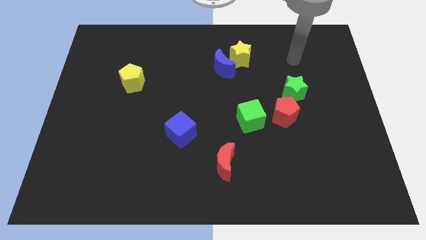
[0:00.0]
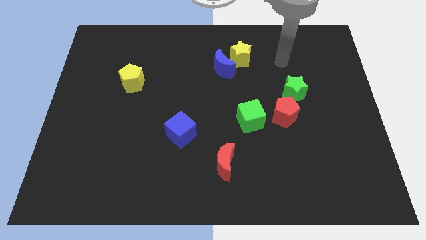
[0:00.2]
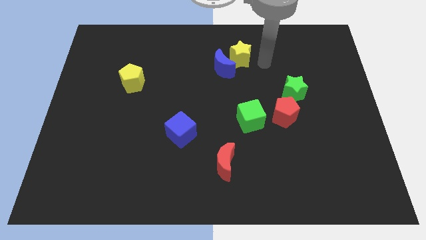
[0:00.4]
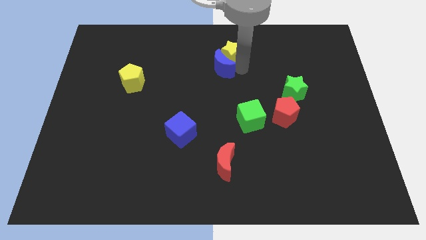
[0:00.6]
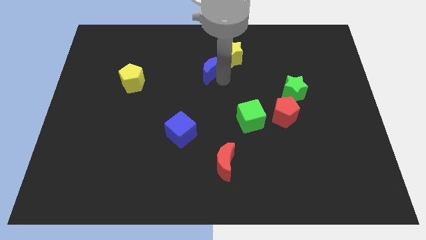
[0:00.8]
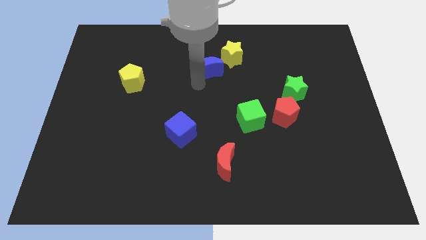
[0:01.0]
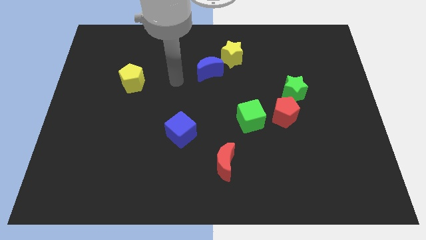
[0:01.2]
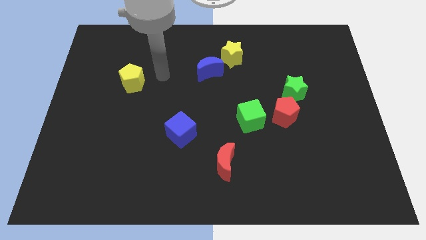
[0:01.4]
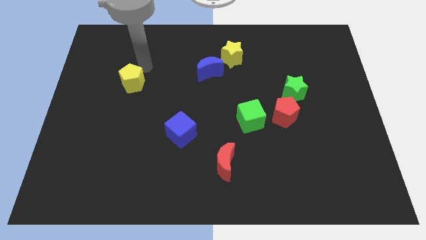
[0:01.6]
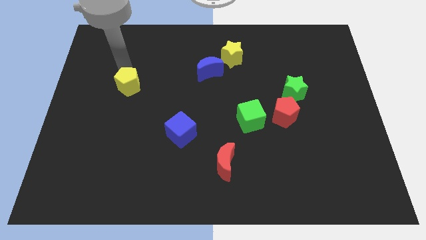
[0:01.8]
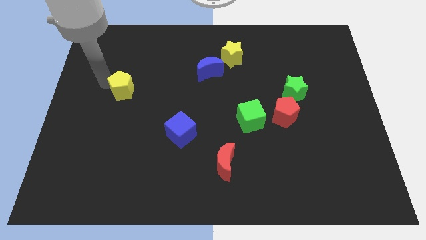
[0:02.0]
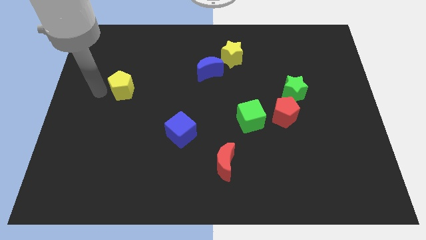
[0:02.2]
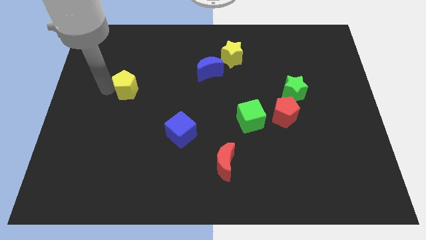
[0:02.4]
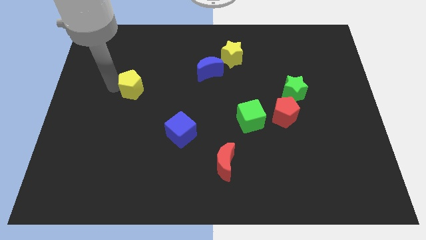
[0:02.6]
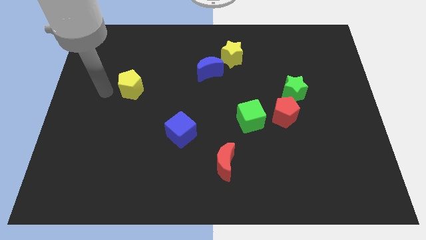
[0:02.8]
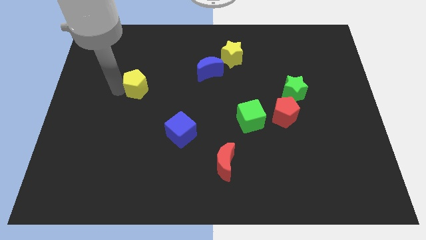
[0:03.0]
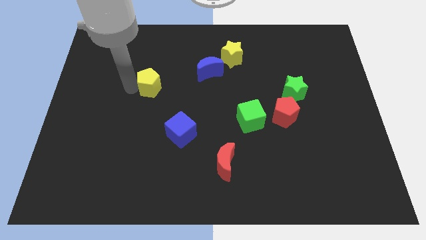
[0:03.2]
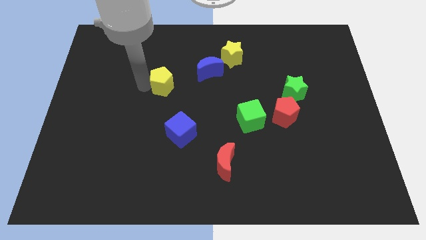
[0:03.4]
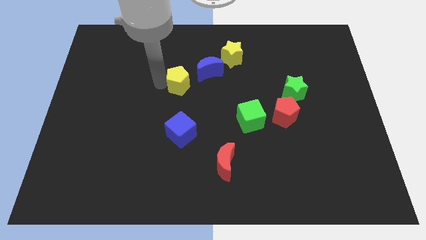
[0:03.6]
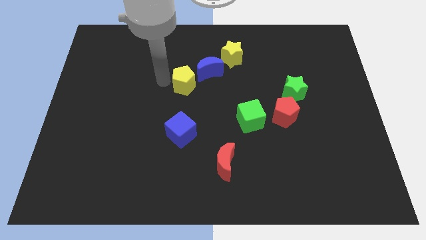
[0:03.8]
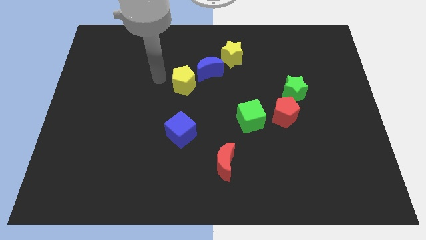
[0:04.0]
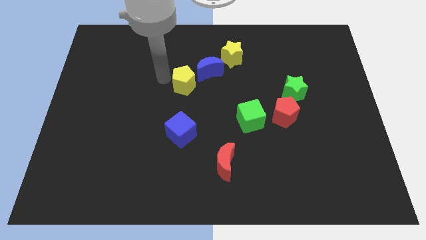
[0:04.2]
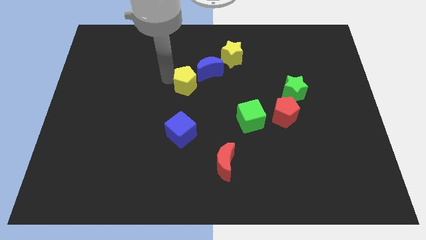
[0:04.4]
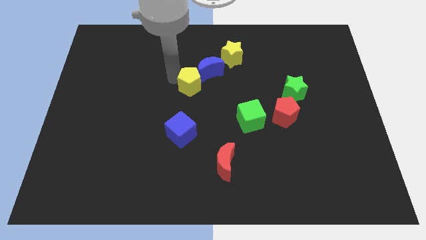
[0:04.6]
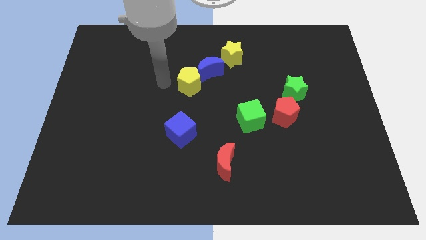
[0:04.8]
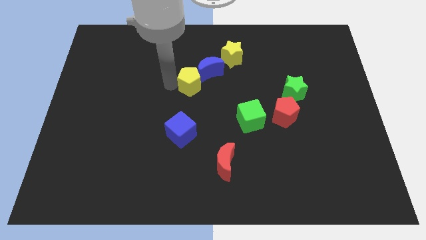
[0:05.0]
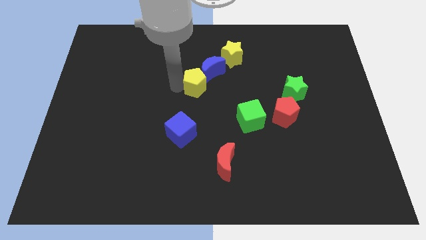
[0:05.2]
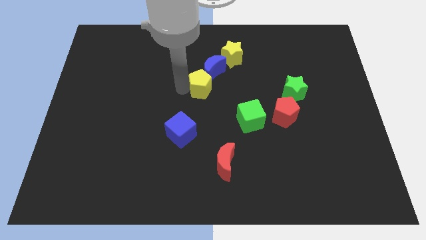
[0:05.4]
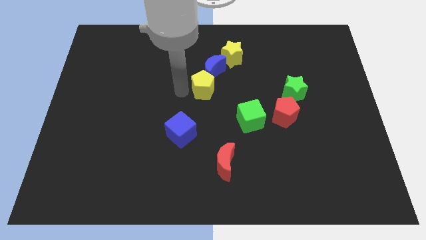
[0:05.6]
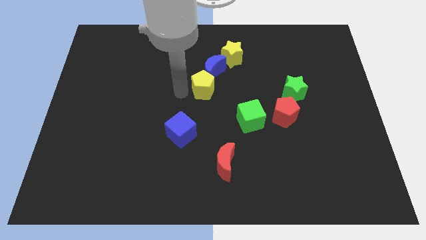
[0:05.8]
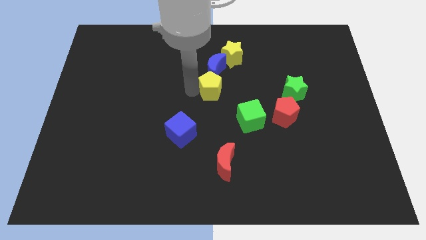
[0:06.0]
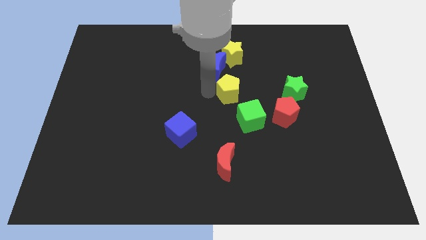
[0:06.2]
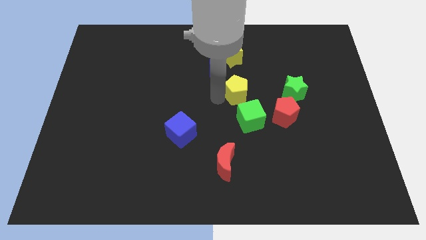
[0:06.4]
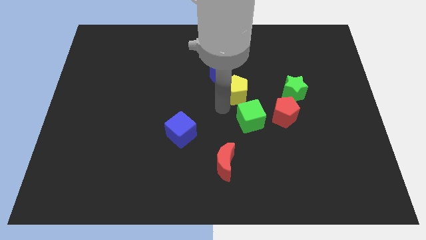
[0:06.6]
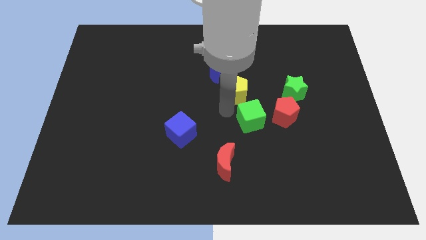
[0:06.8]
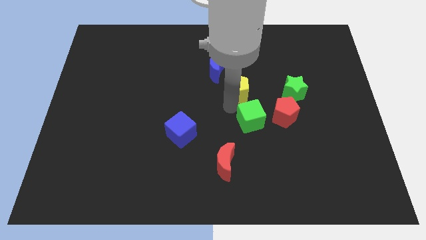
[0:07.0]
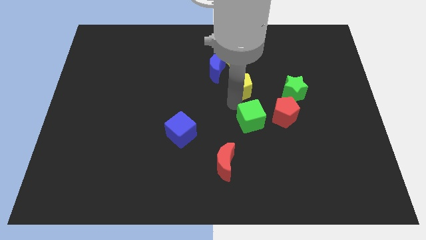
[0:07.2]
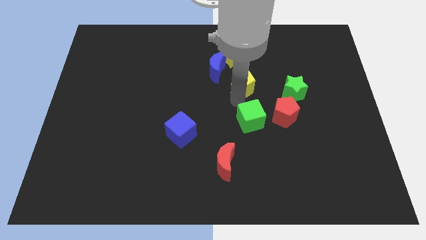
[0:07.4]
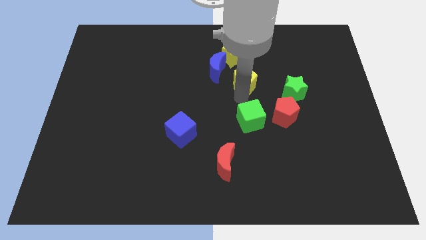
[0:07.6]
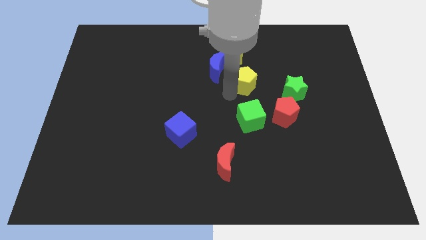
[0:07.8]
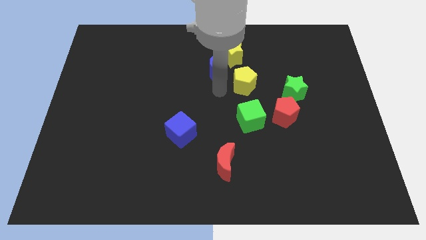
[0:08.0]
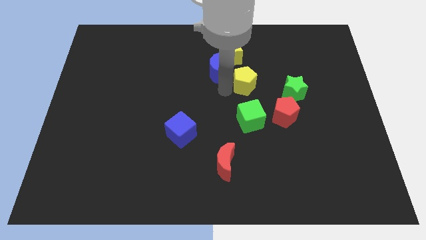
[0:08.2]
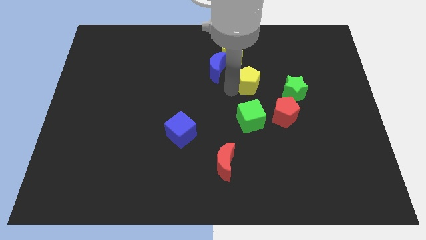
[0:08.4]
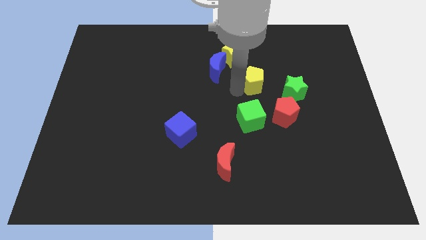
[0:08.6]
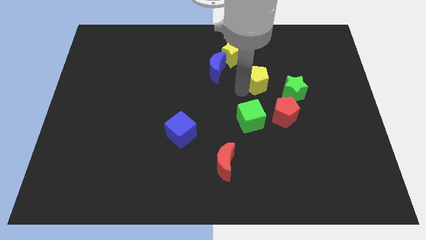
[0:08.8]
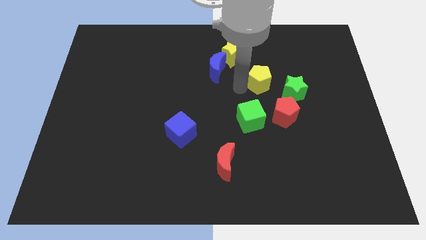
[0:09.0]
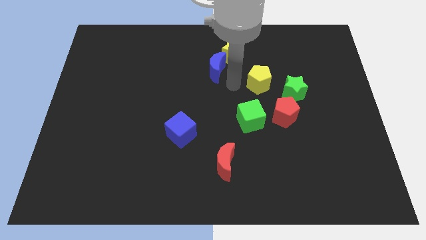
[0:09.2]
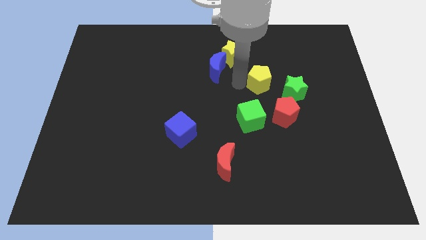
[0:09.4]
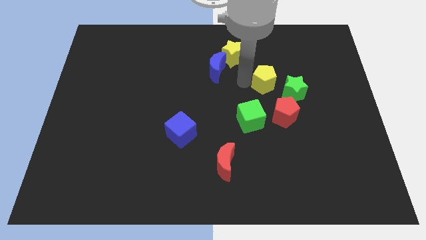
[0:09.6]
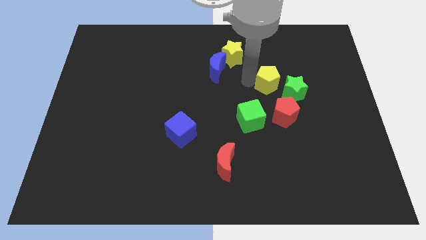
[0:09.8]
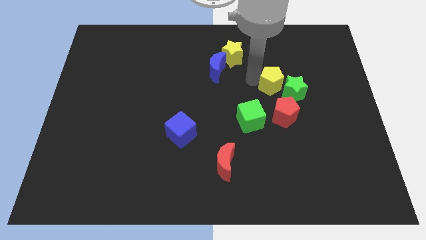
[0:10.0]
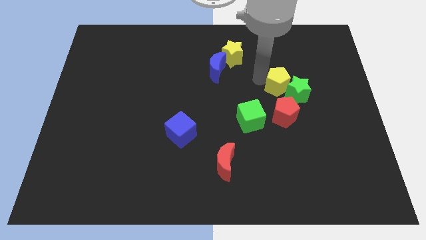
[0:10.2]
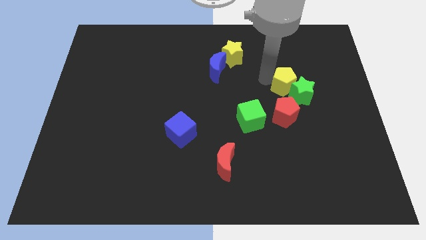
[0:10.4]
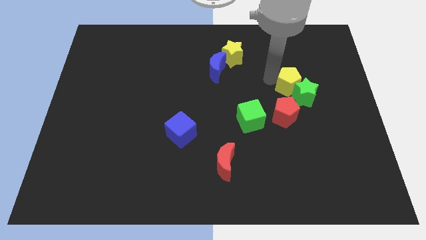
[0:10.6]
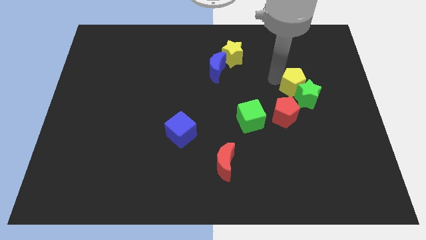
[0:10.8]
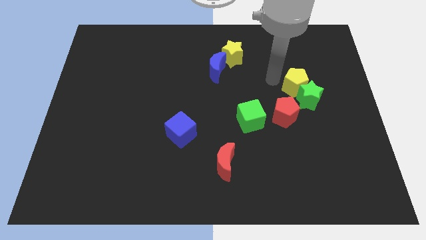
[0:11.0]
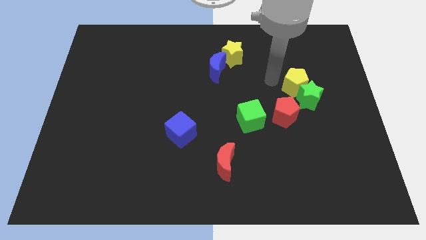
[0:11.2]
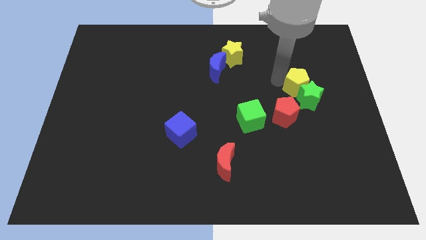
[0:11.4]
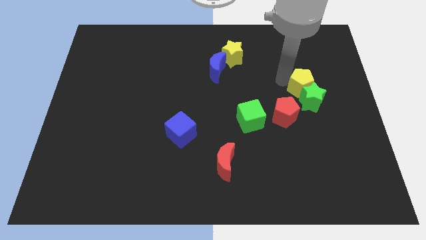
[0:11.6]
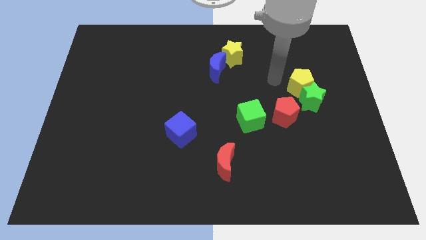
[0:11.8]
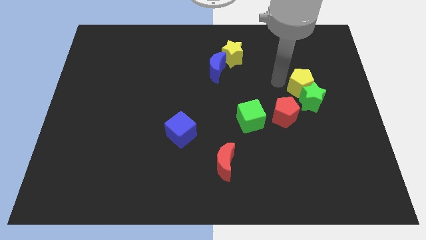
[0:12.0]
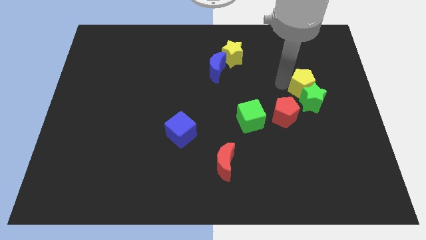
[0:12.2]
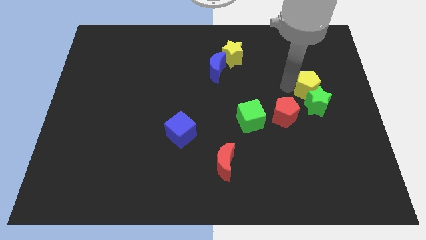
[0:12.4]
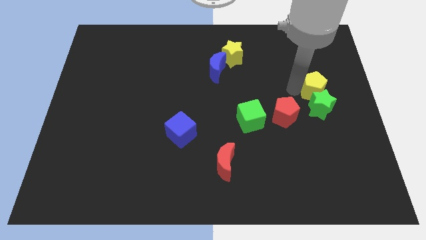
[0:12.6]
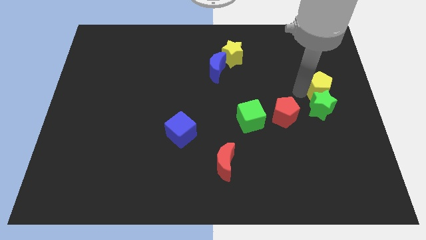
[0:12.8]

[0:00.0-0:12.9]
put the yellow pentagon to the right side

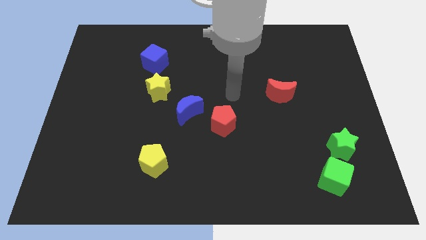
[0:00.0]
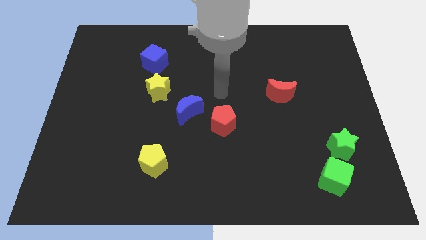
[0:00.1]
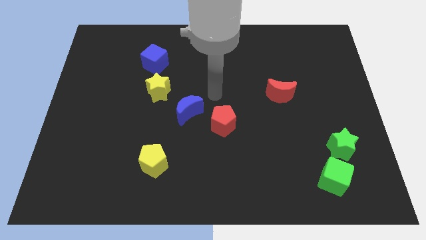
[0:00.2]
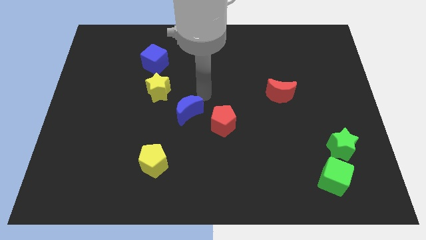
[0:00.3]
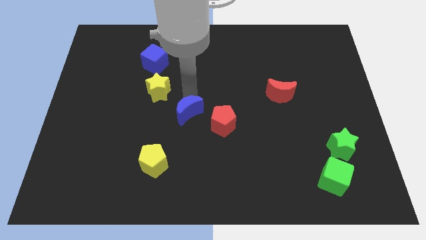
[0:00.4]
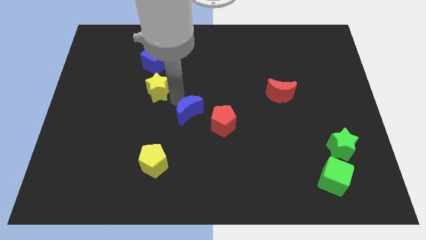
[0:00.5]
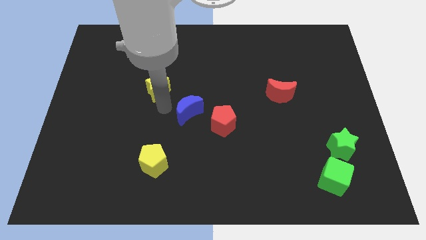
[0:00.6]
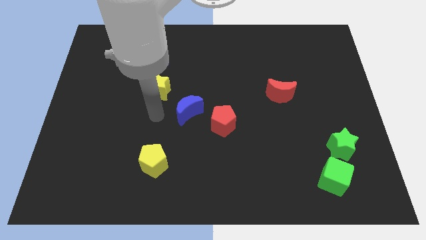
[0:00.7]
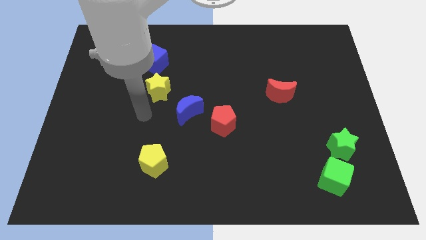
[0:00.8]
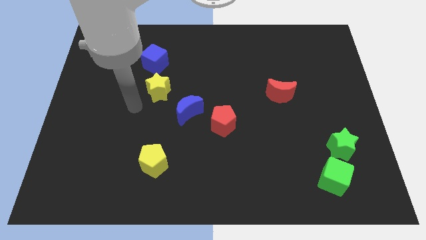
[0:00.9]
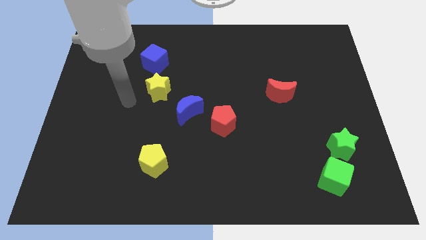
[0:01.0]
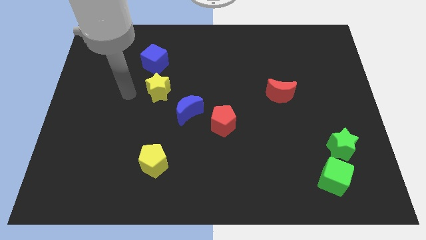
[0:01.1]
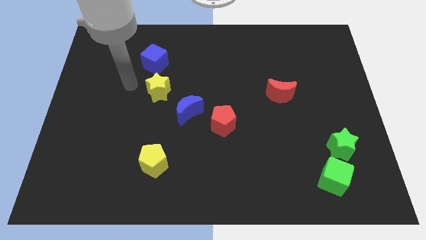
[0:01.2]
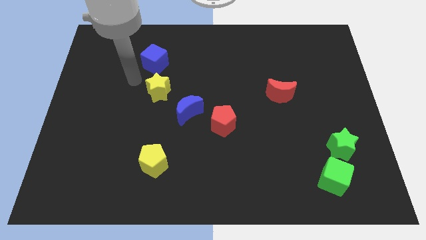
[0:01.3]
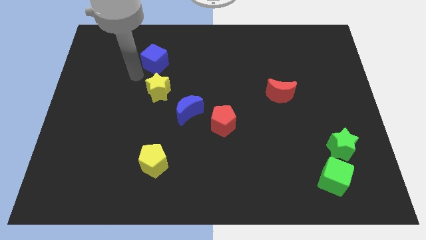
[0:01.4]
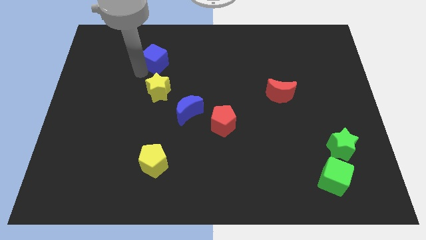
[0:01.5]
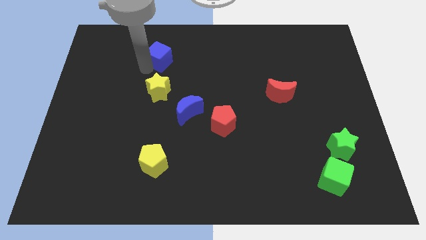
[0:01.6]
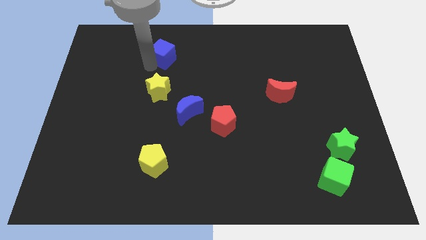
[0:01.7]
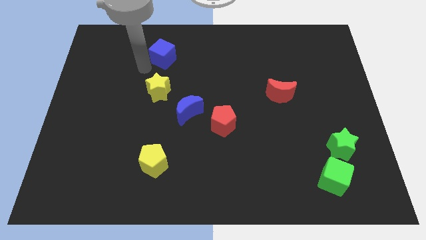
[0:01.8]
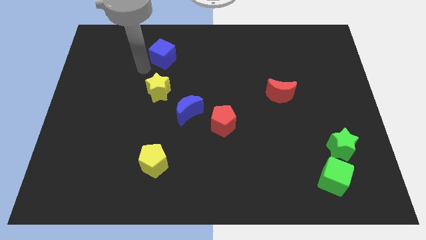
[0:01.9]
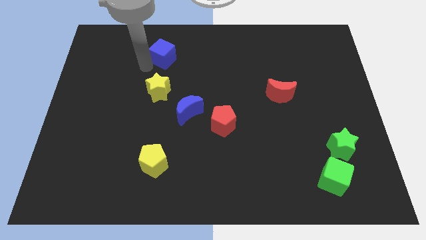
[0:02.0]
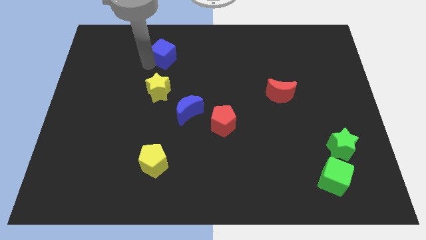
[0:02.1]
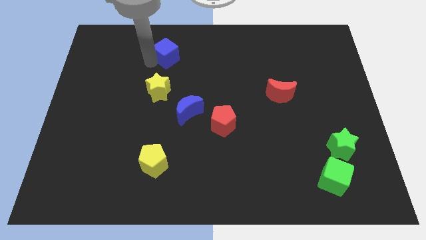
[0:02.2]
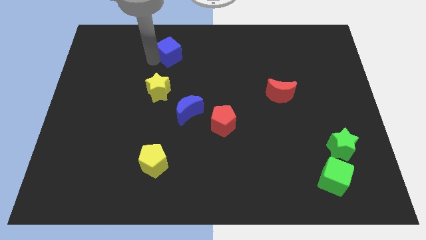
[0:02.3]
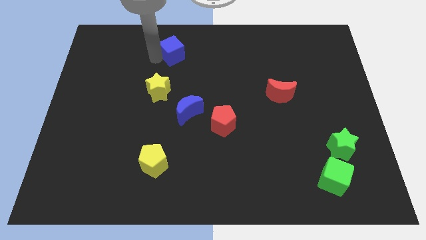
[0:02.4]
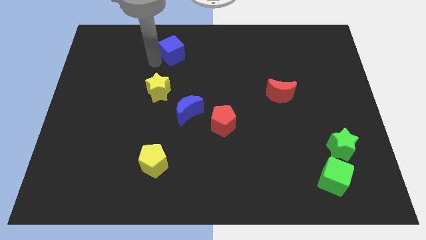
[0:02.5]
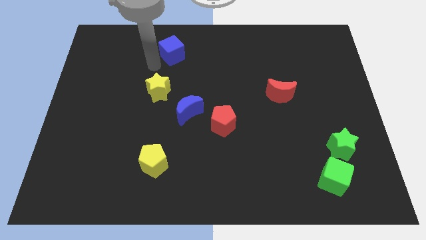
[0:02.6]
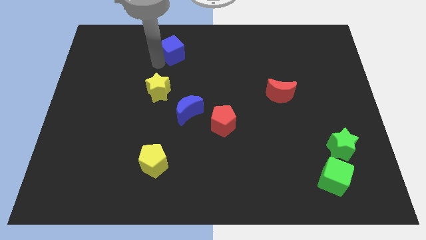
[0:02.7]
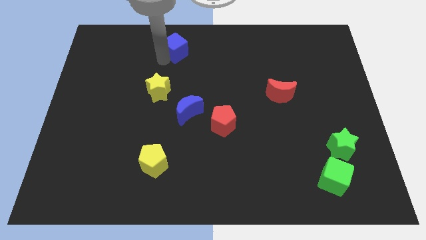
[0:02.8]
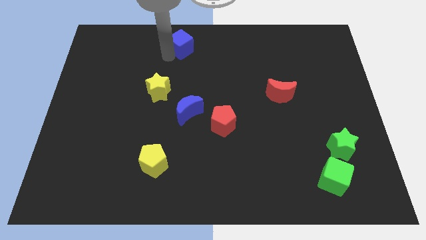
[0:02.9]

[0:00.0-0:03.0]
slide the blue cube to the top side
